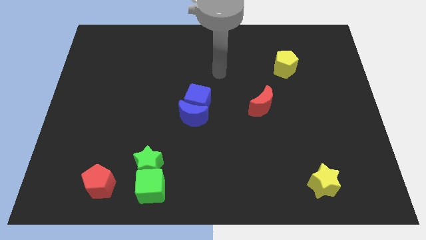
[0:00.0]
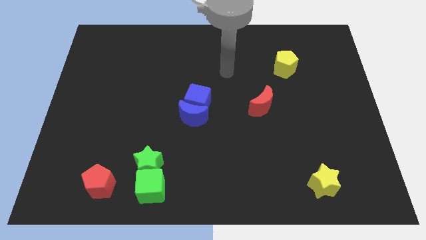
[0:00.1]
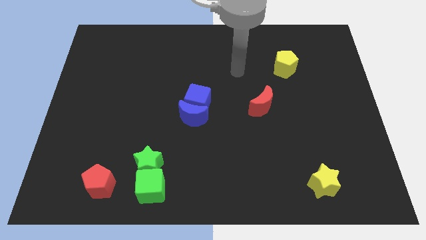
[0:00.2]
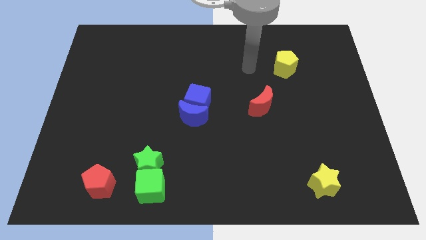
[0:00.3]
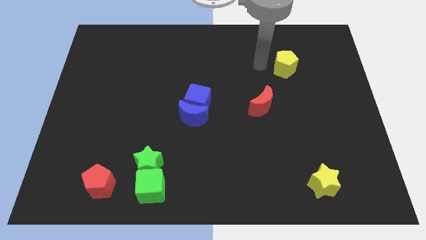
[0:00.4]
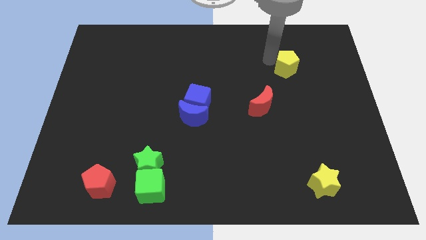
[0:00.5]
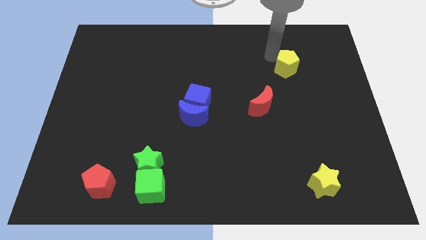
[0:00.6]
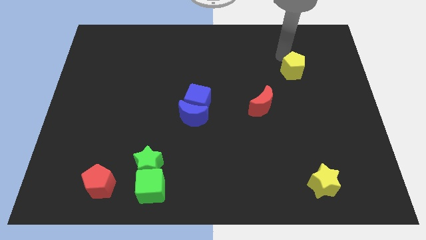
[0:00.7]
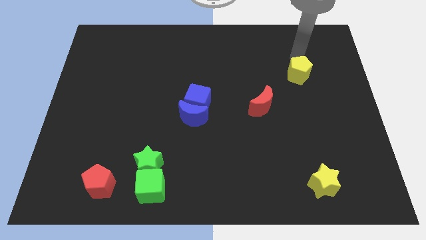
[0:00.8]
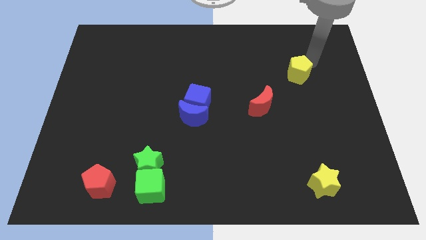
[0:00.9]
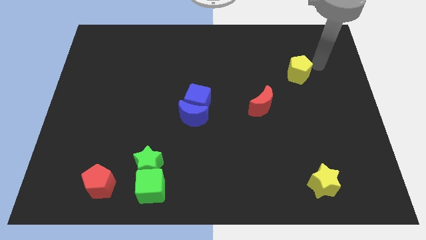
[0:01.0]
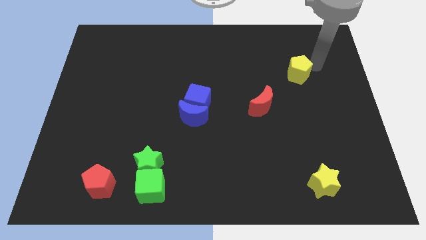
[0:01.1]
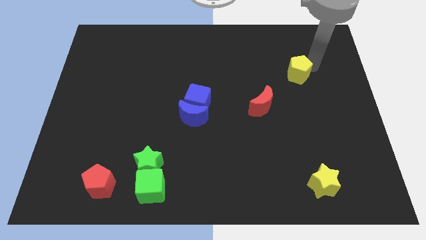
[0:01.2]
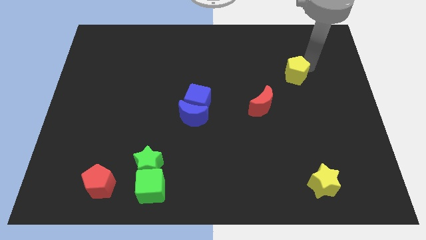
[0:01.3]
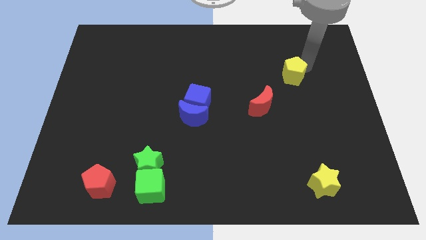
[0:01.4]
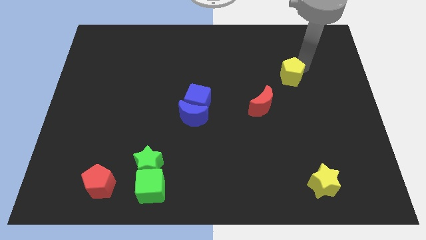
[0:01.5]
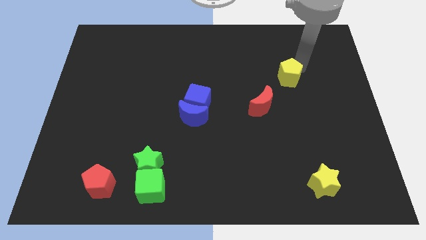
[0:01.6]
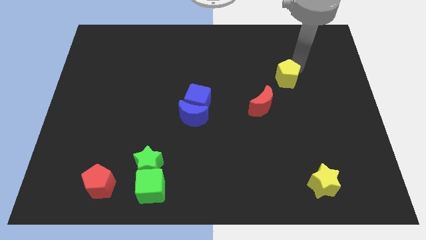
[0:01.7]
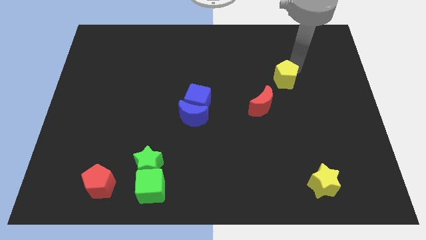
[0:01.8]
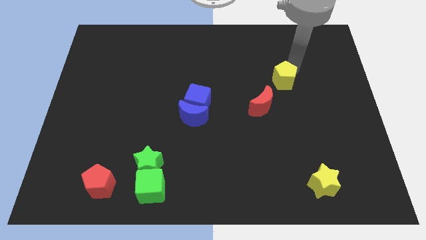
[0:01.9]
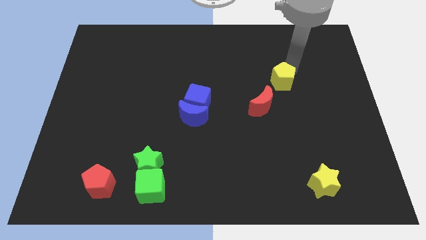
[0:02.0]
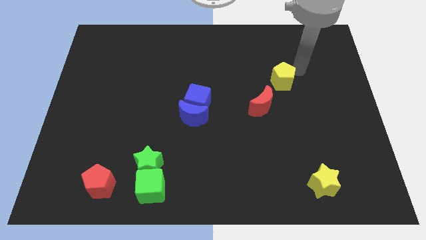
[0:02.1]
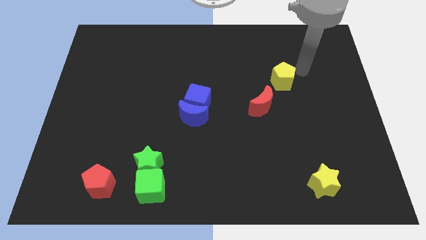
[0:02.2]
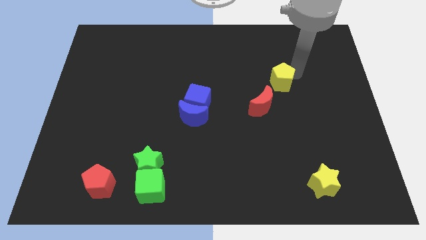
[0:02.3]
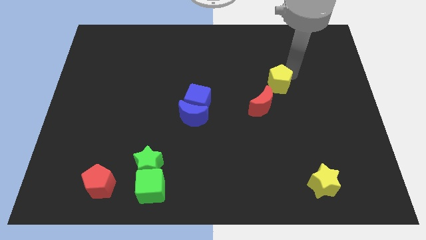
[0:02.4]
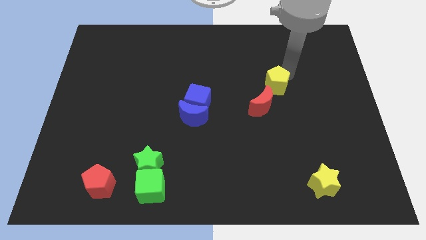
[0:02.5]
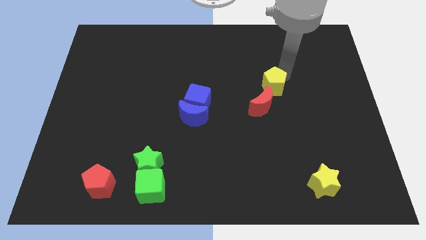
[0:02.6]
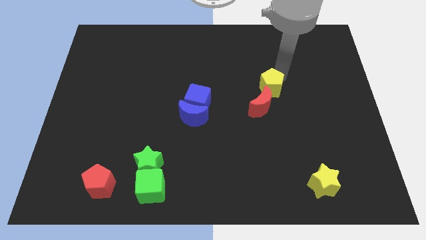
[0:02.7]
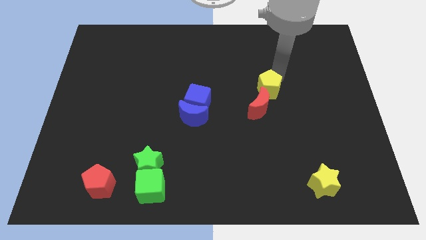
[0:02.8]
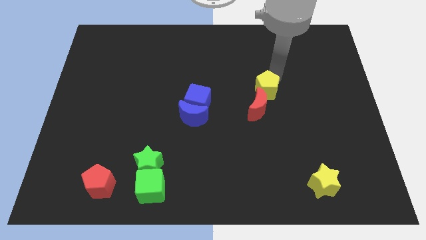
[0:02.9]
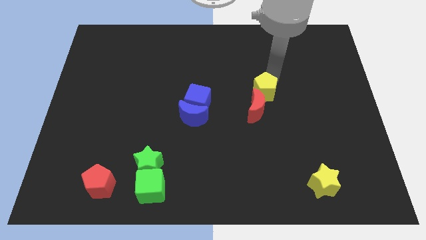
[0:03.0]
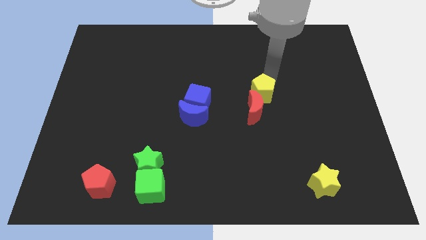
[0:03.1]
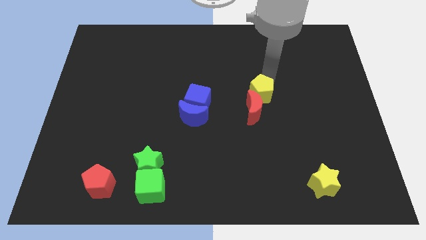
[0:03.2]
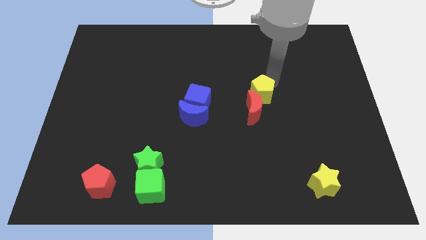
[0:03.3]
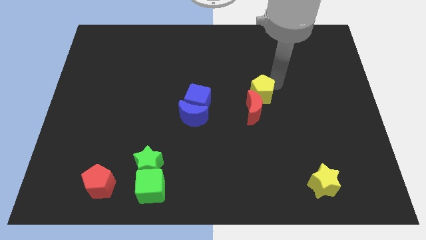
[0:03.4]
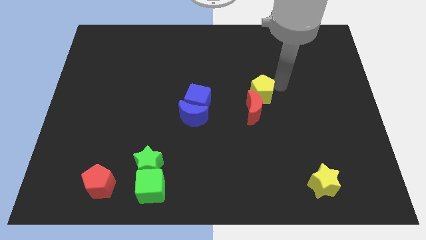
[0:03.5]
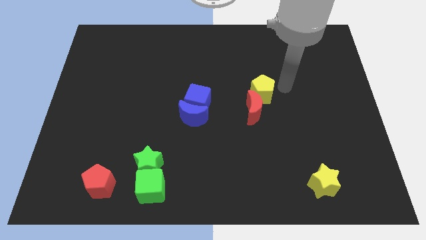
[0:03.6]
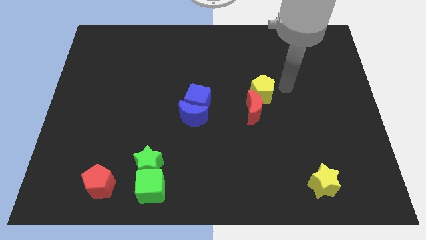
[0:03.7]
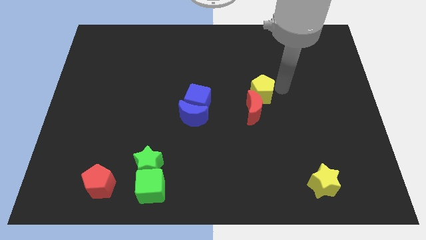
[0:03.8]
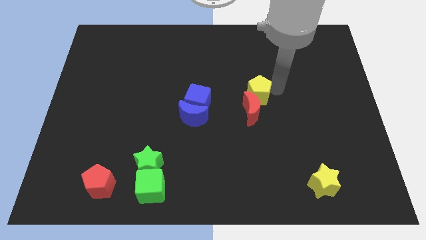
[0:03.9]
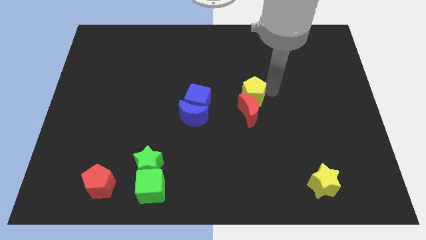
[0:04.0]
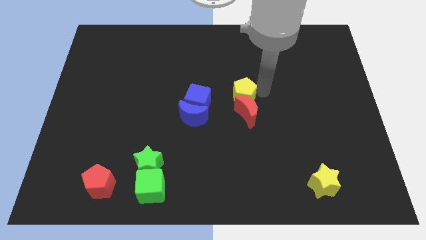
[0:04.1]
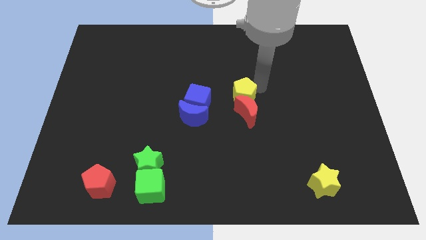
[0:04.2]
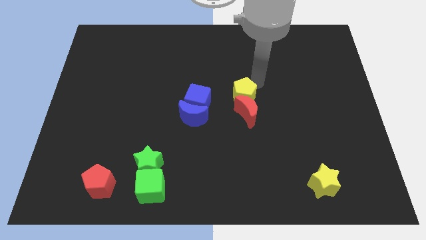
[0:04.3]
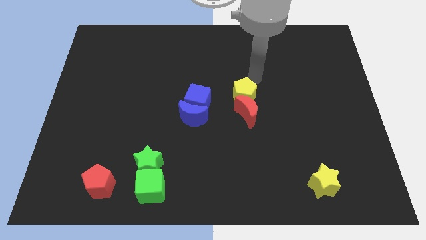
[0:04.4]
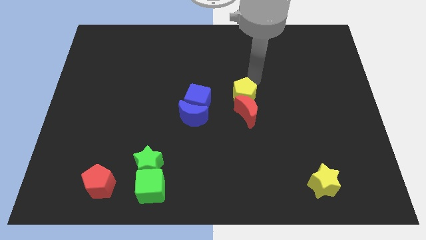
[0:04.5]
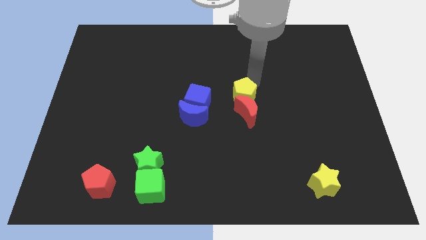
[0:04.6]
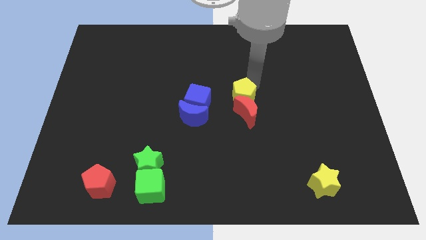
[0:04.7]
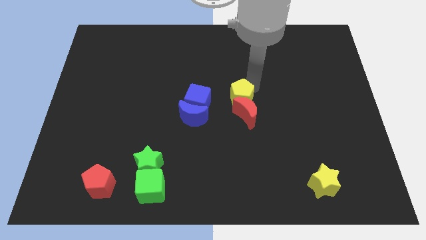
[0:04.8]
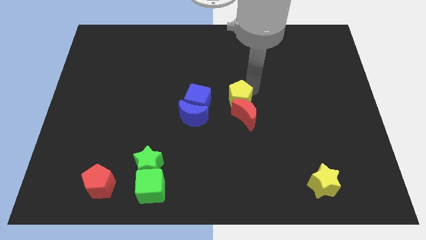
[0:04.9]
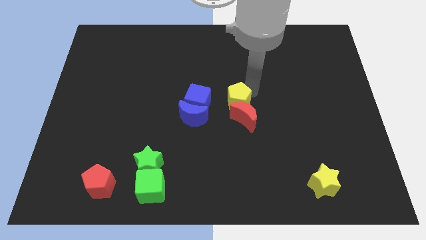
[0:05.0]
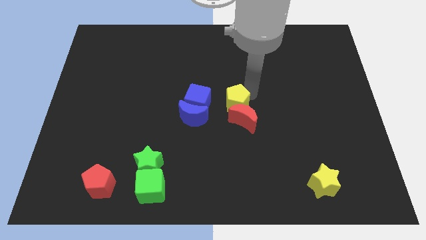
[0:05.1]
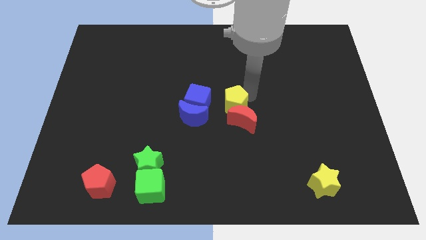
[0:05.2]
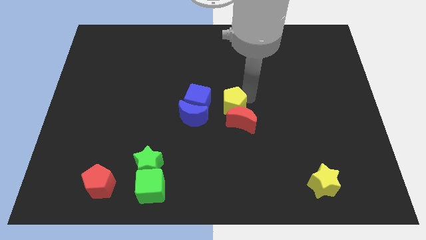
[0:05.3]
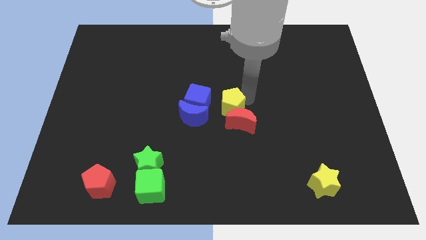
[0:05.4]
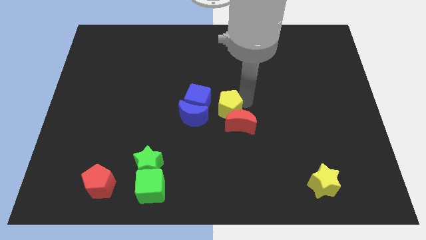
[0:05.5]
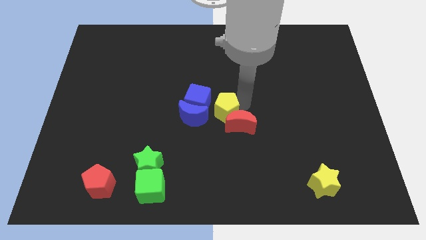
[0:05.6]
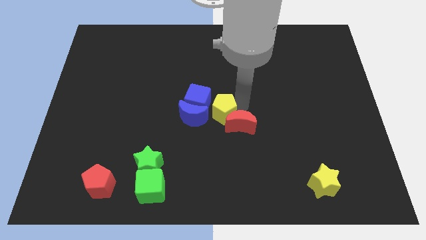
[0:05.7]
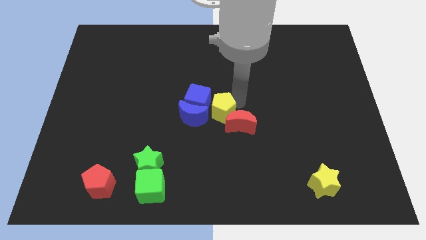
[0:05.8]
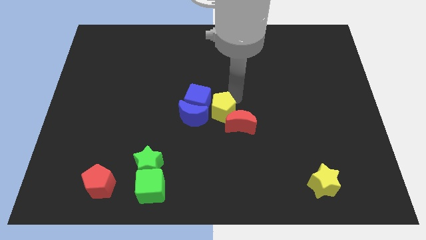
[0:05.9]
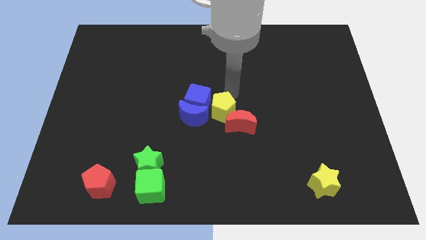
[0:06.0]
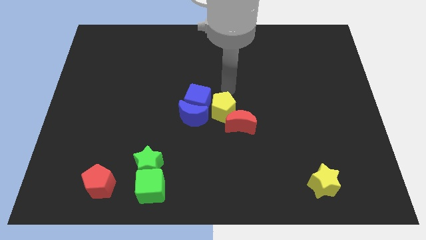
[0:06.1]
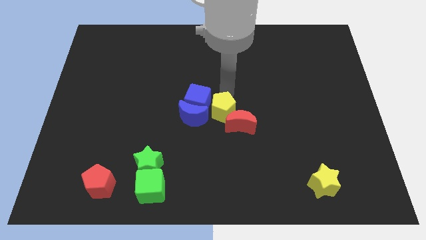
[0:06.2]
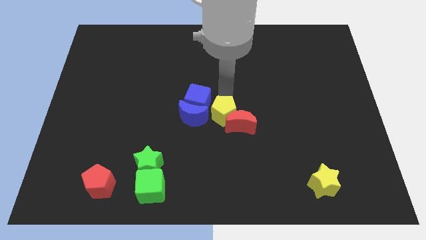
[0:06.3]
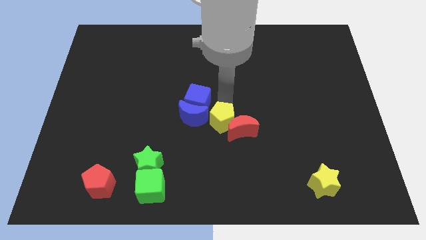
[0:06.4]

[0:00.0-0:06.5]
slide the yellow pentagon to the bottom right side of the blue moon

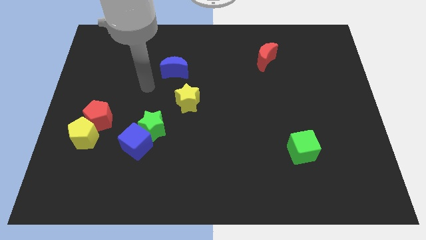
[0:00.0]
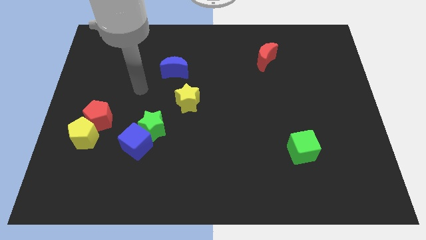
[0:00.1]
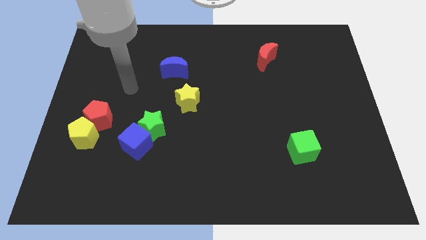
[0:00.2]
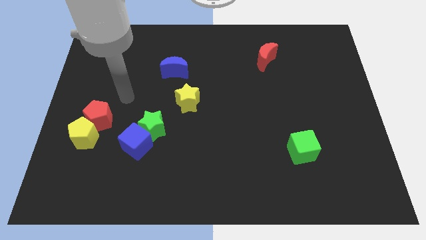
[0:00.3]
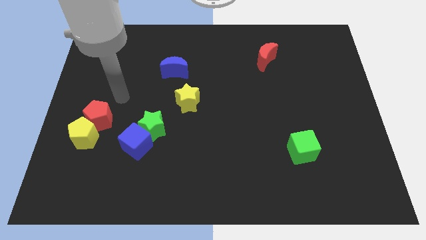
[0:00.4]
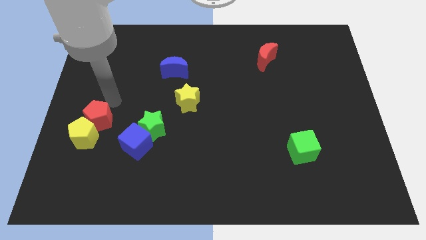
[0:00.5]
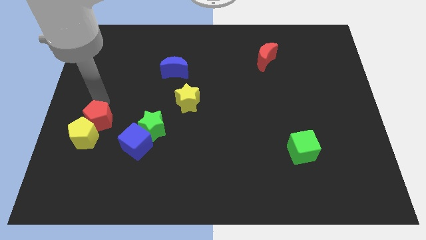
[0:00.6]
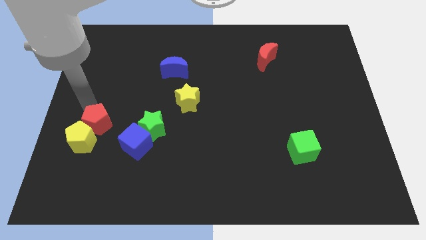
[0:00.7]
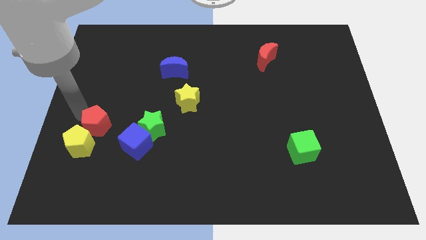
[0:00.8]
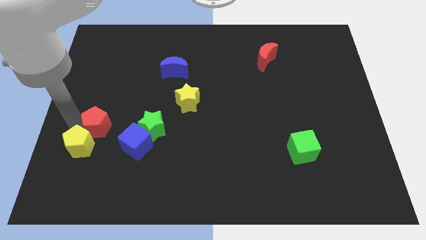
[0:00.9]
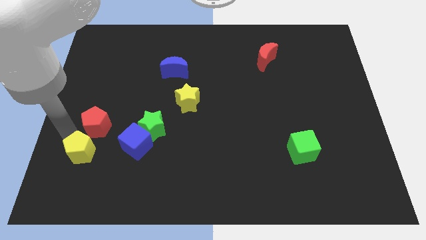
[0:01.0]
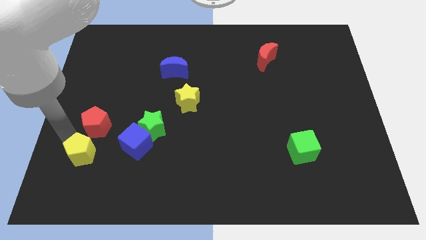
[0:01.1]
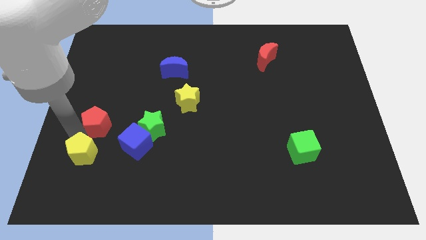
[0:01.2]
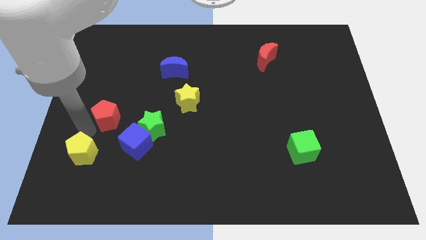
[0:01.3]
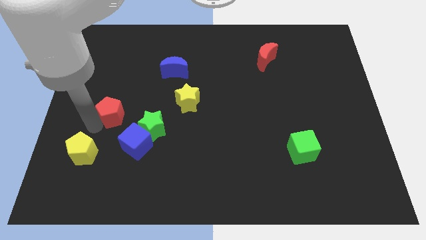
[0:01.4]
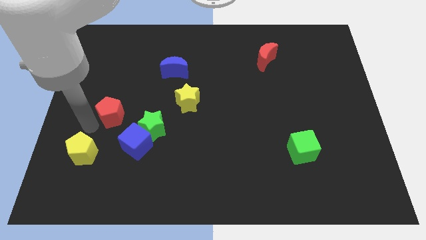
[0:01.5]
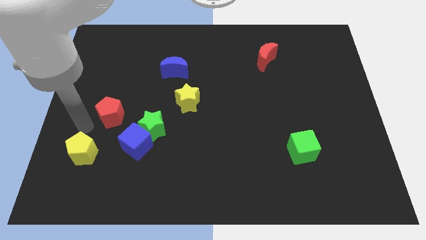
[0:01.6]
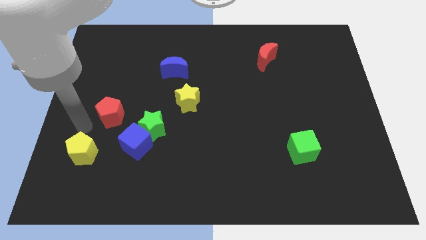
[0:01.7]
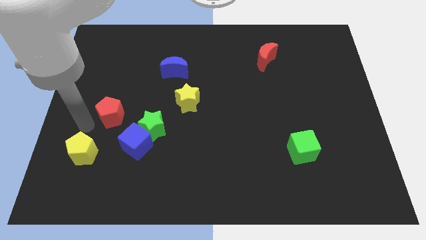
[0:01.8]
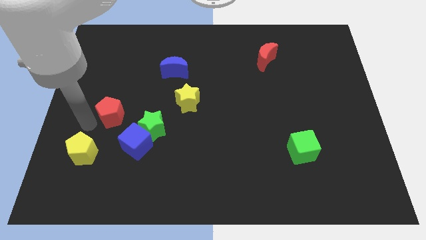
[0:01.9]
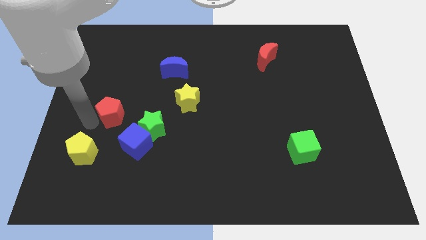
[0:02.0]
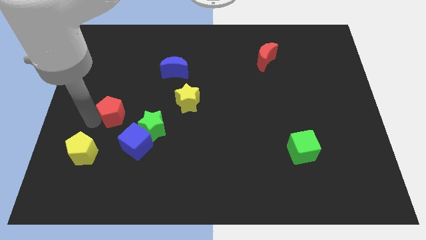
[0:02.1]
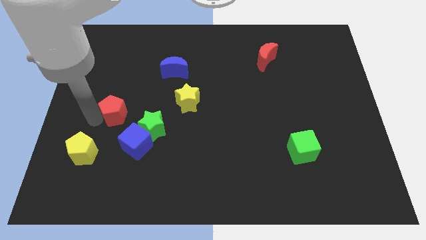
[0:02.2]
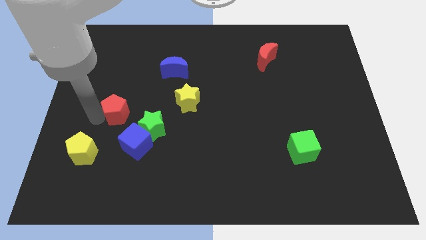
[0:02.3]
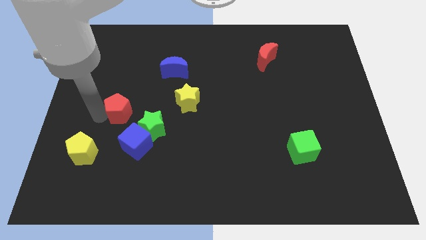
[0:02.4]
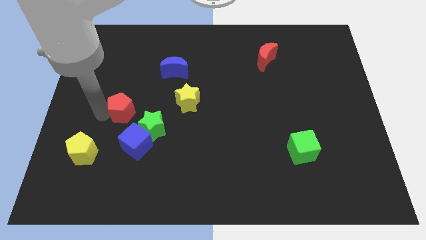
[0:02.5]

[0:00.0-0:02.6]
move the red pentagon just left of the yellow star
